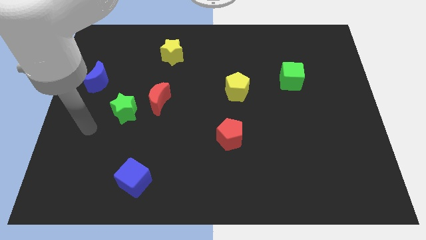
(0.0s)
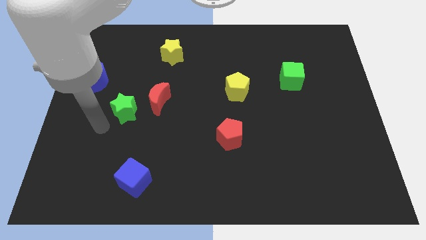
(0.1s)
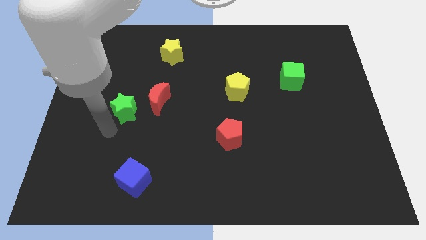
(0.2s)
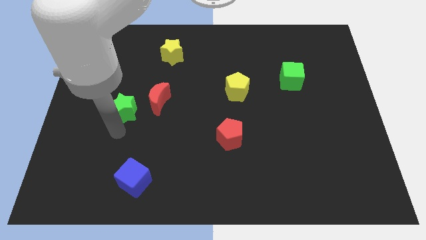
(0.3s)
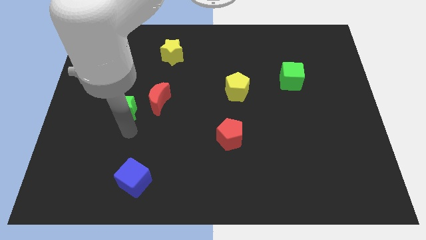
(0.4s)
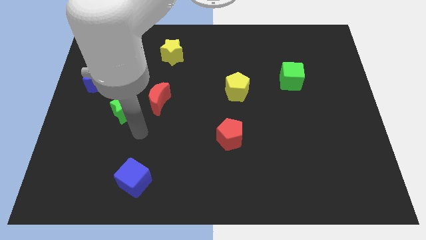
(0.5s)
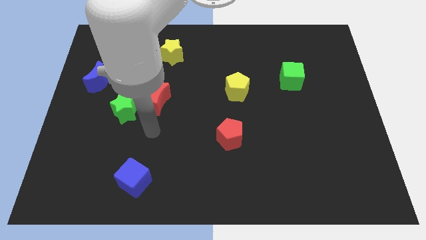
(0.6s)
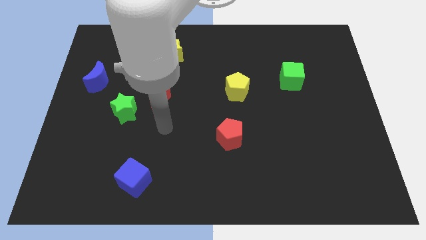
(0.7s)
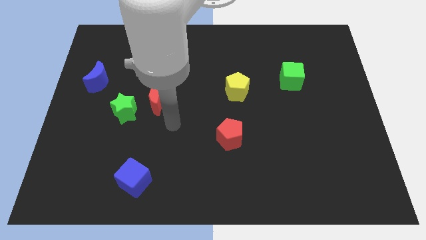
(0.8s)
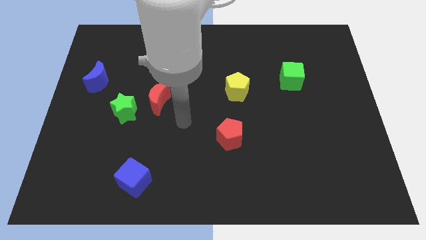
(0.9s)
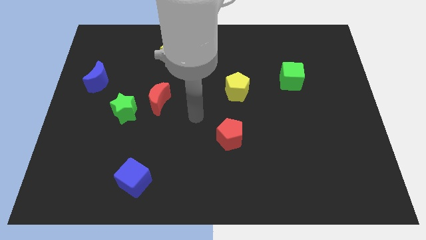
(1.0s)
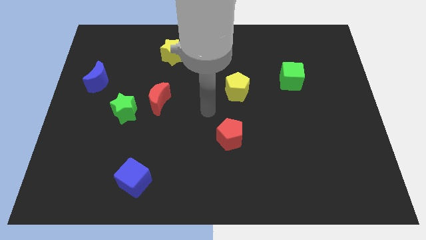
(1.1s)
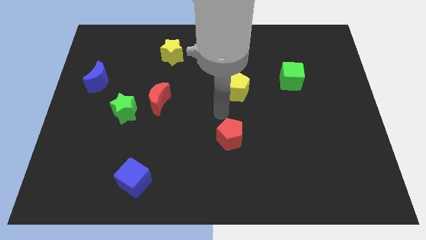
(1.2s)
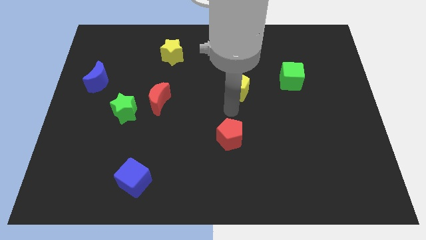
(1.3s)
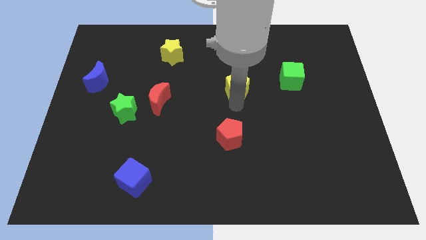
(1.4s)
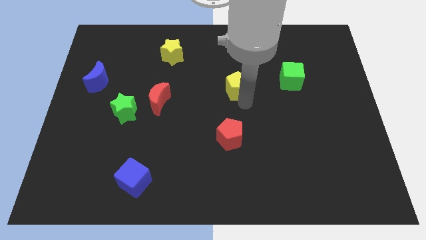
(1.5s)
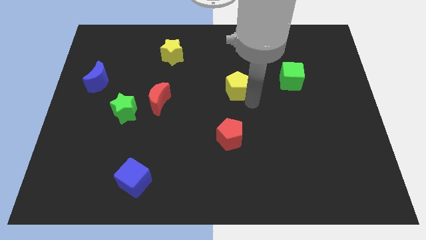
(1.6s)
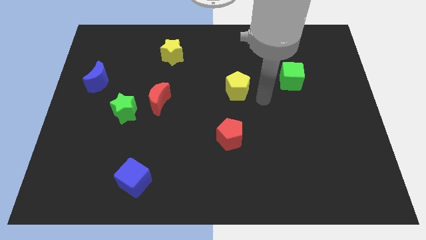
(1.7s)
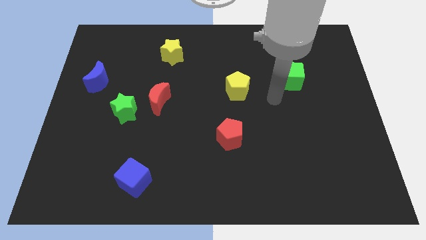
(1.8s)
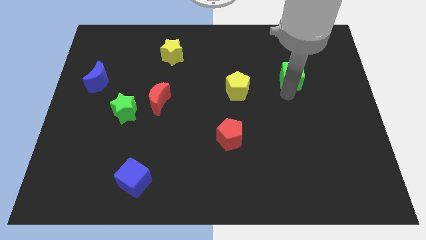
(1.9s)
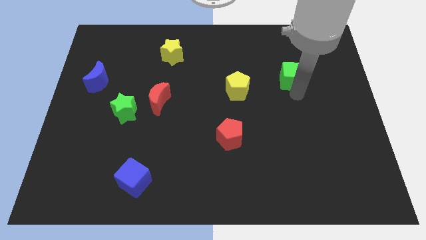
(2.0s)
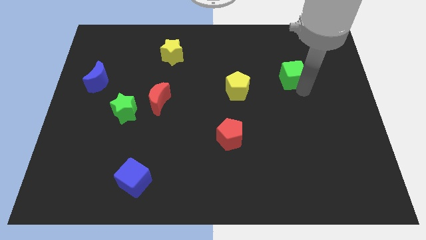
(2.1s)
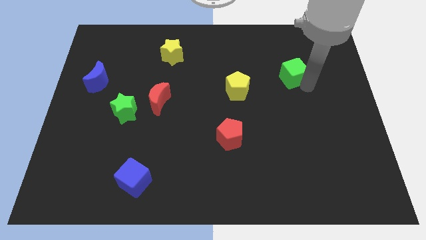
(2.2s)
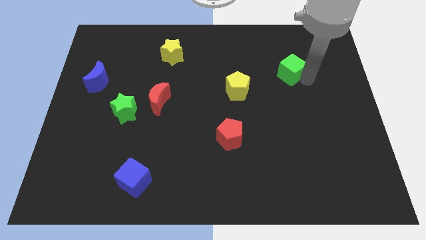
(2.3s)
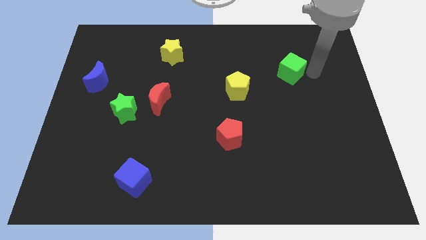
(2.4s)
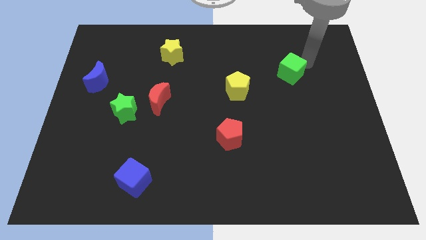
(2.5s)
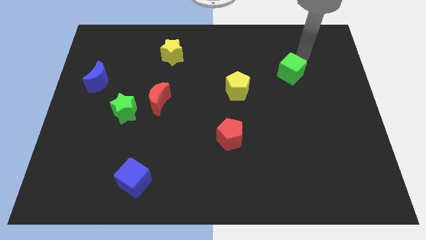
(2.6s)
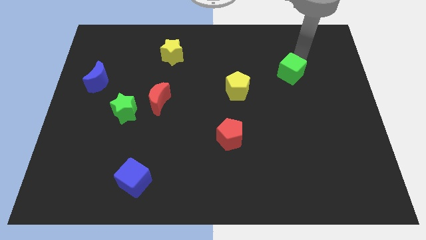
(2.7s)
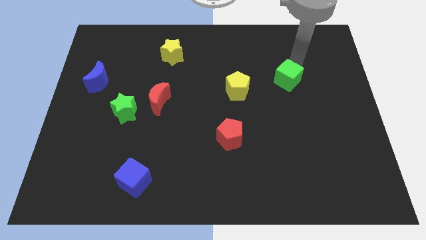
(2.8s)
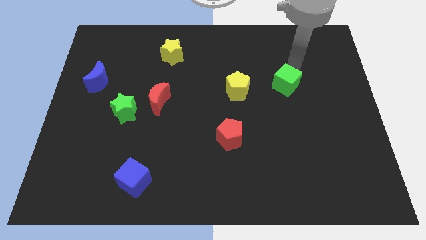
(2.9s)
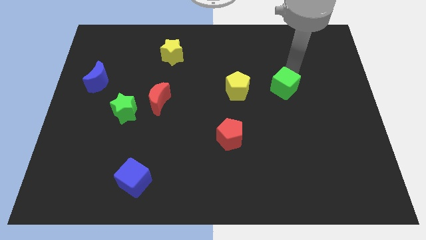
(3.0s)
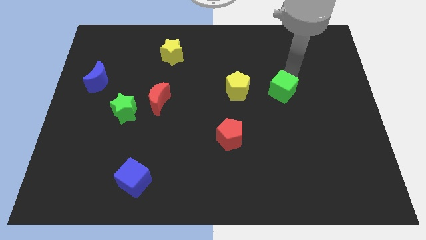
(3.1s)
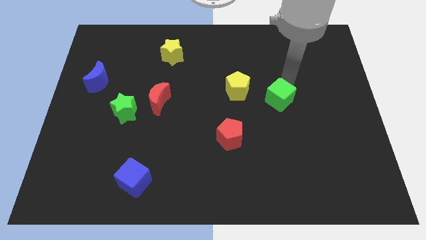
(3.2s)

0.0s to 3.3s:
move the green cube downwards and then left a little bit

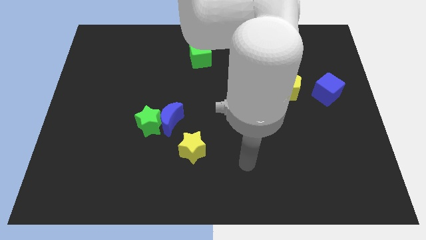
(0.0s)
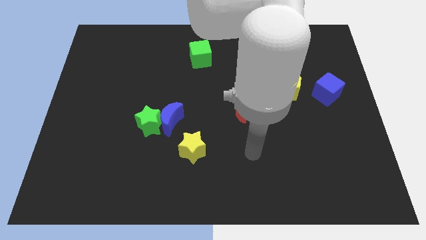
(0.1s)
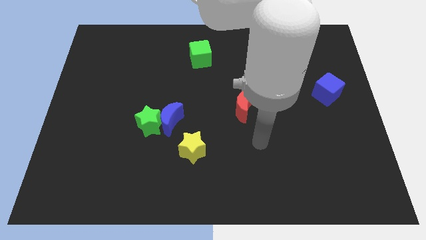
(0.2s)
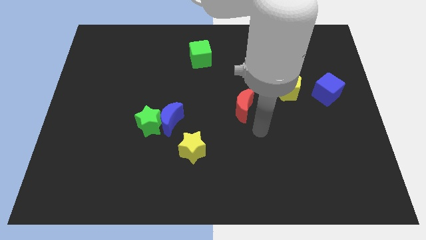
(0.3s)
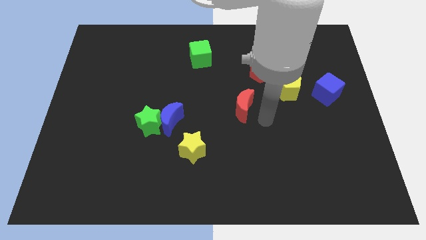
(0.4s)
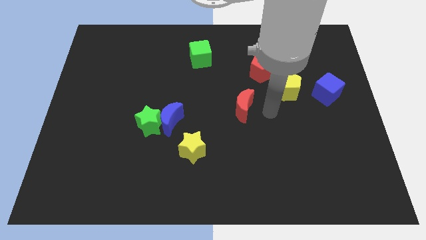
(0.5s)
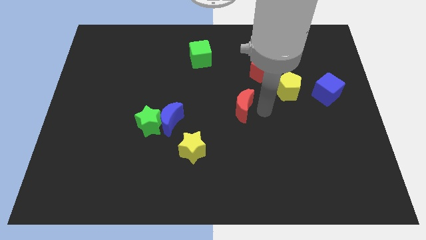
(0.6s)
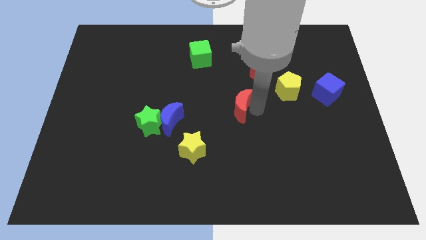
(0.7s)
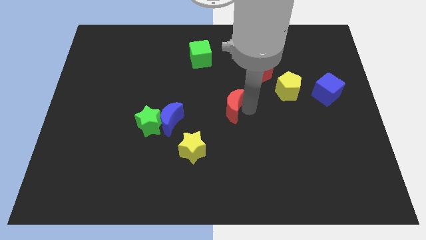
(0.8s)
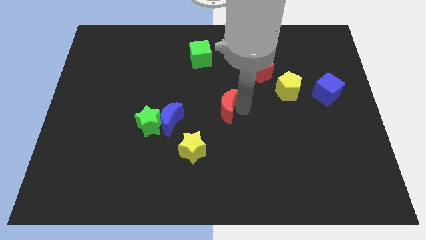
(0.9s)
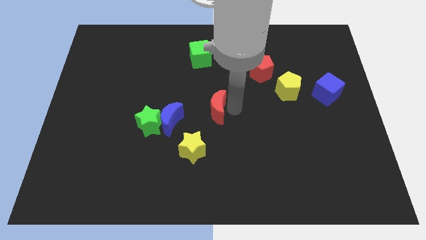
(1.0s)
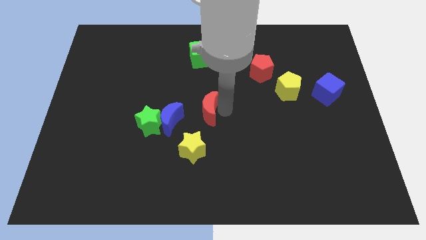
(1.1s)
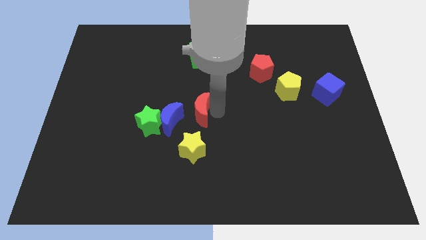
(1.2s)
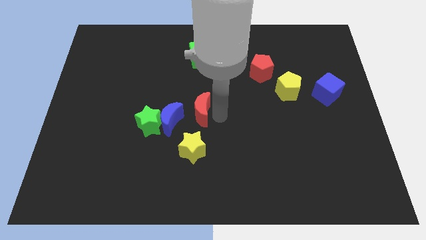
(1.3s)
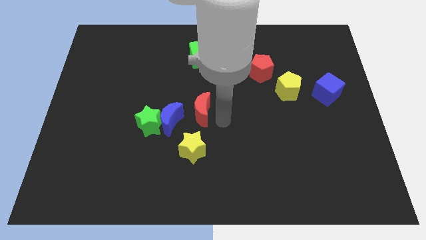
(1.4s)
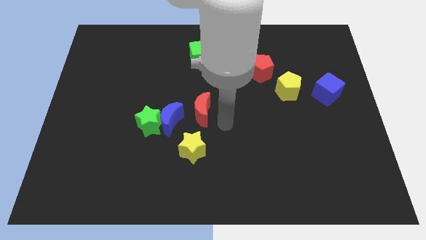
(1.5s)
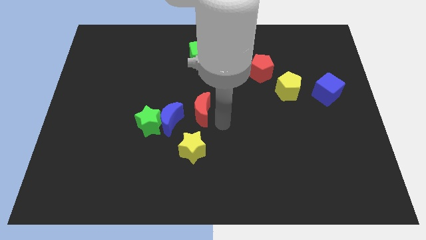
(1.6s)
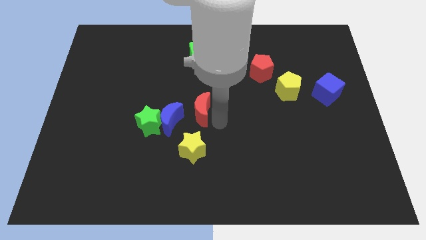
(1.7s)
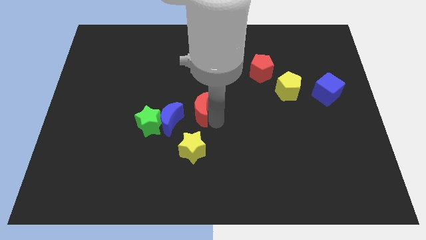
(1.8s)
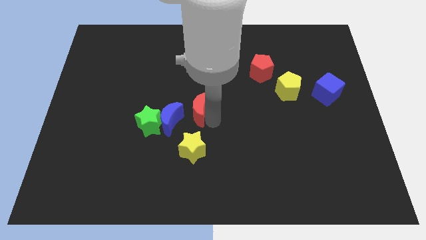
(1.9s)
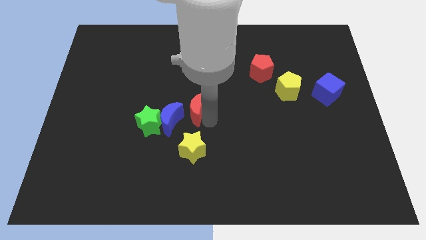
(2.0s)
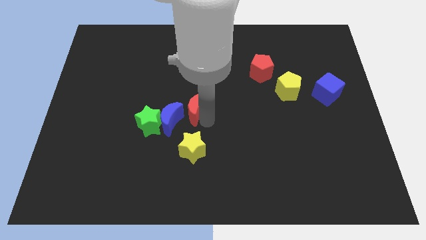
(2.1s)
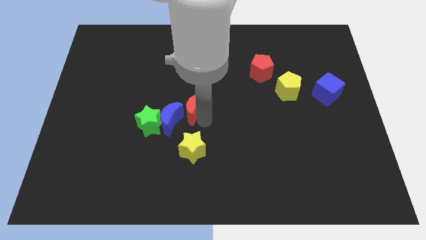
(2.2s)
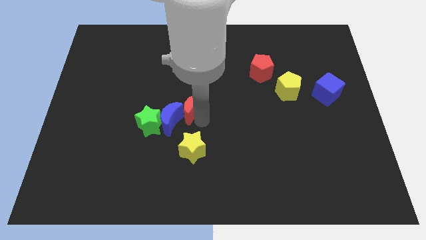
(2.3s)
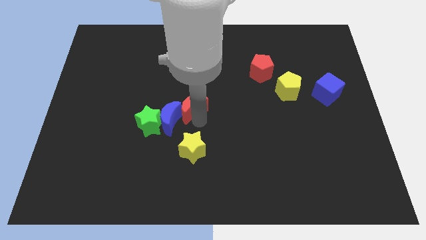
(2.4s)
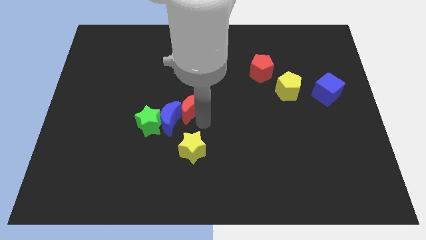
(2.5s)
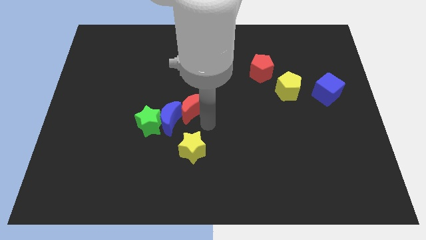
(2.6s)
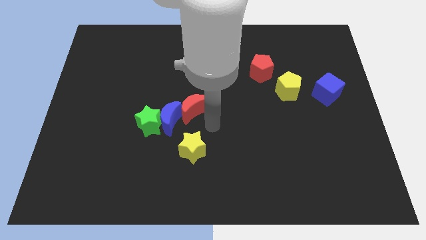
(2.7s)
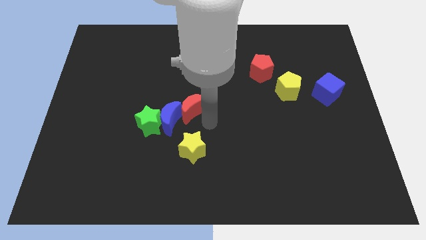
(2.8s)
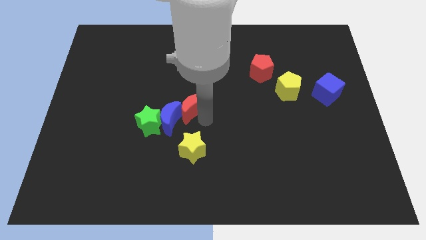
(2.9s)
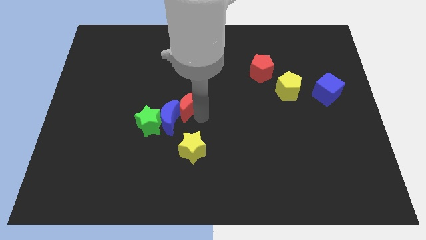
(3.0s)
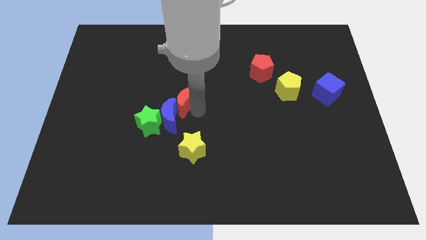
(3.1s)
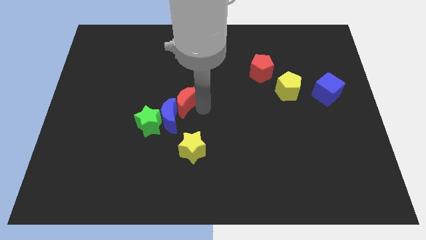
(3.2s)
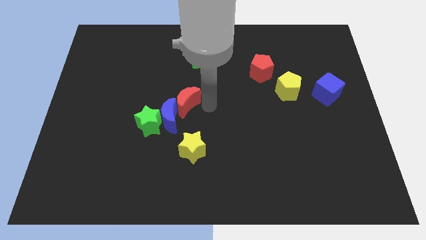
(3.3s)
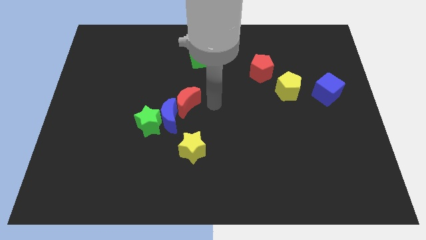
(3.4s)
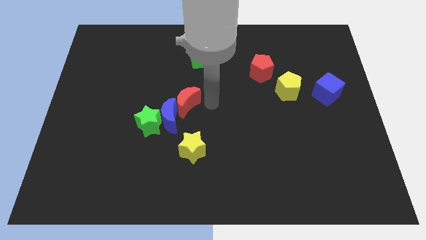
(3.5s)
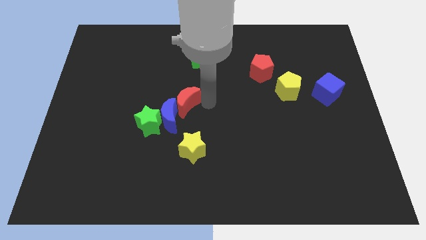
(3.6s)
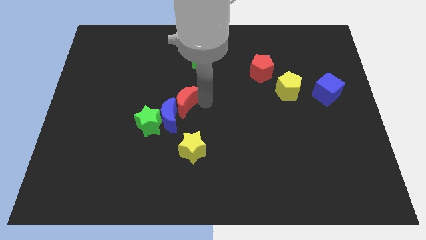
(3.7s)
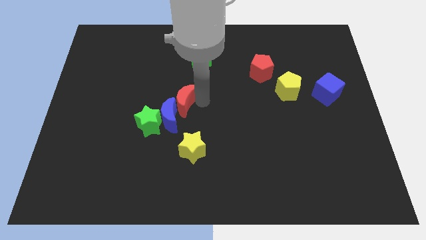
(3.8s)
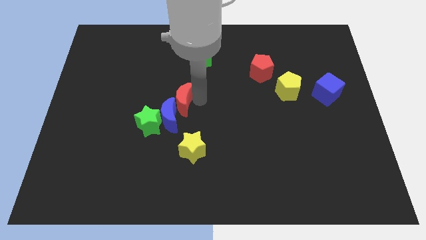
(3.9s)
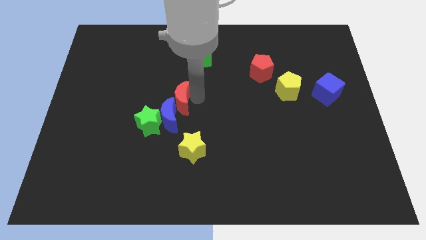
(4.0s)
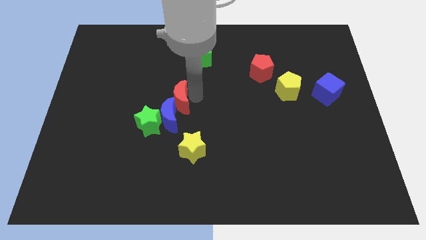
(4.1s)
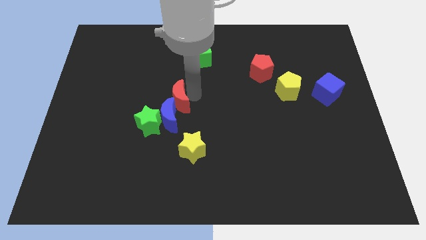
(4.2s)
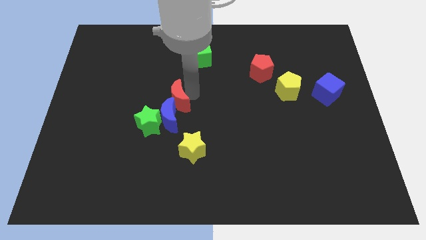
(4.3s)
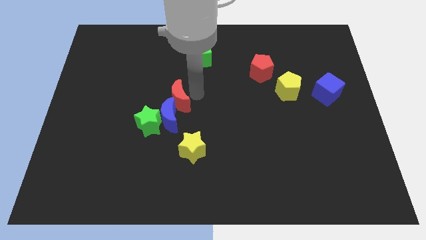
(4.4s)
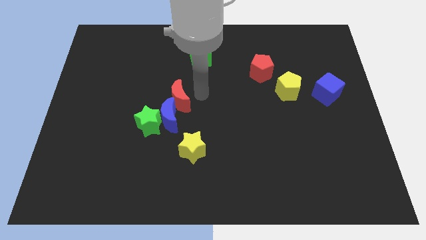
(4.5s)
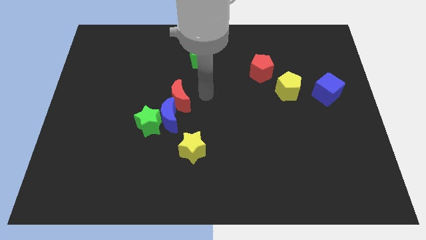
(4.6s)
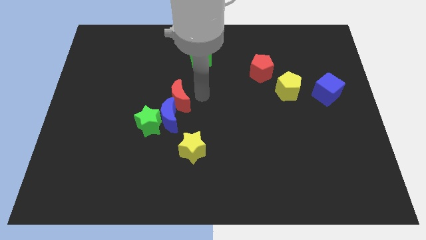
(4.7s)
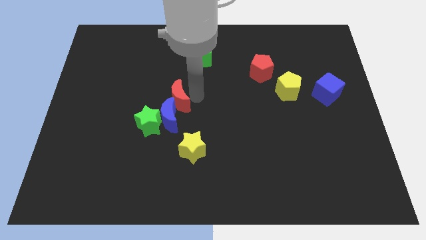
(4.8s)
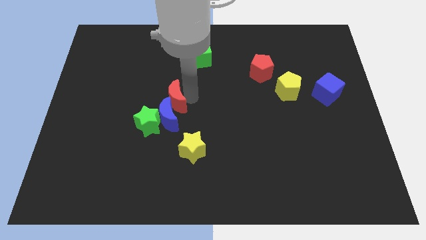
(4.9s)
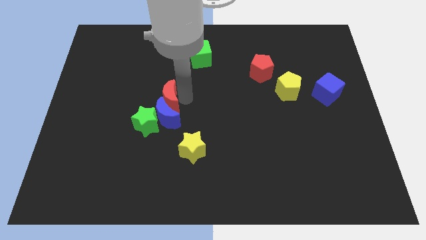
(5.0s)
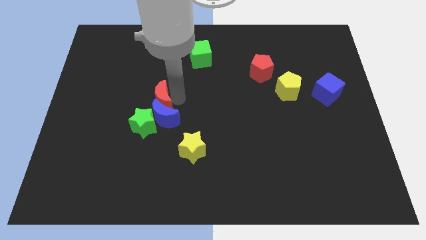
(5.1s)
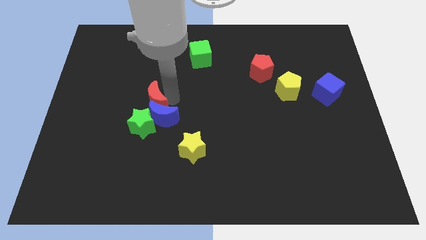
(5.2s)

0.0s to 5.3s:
push the red moon to the left
